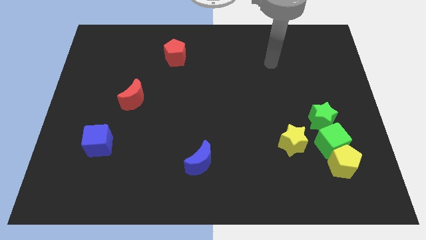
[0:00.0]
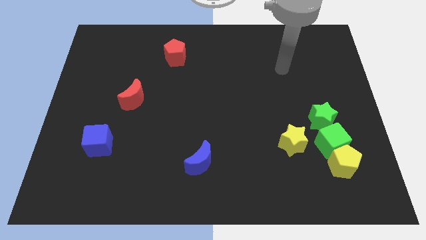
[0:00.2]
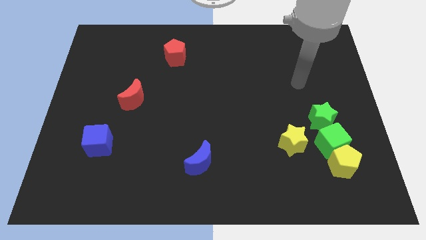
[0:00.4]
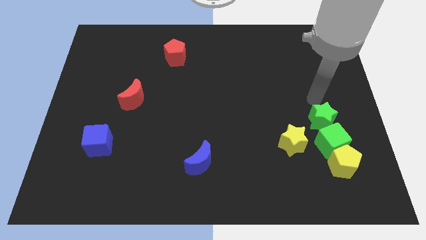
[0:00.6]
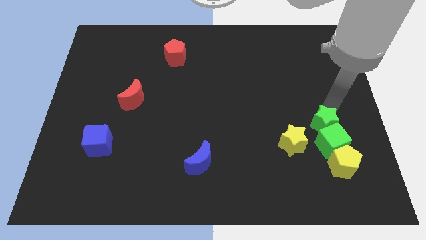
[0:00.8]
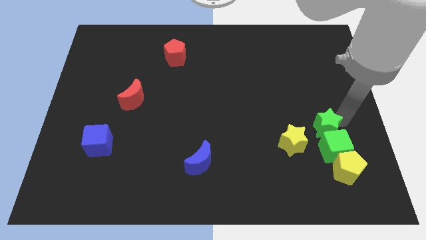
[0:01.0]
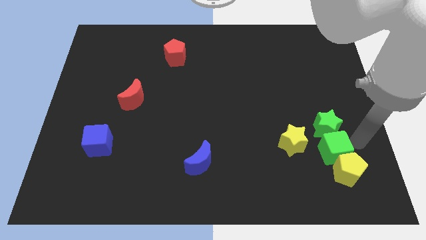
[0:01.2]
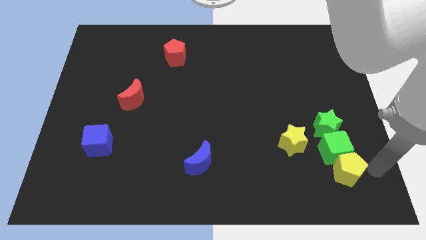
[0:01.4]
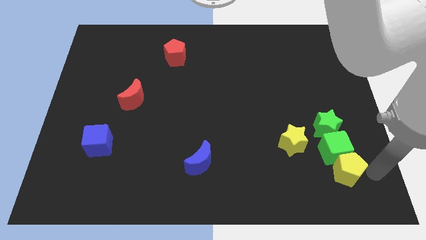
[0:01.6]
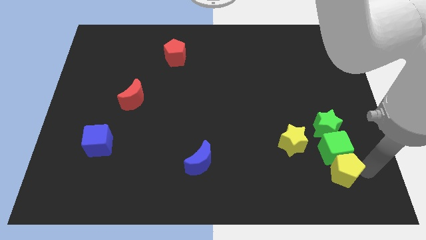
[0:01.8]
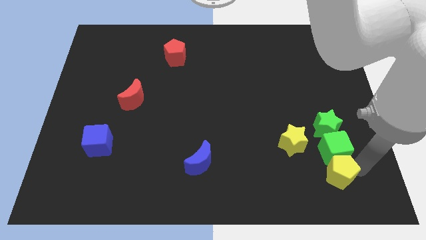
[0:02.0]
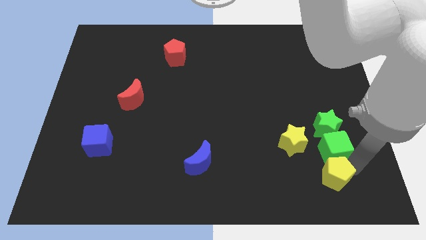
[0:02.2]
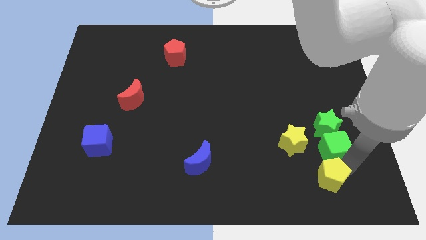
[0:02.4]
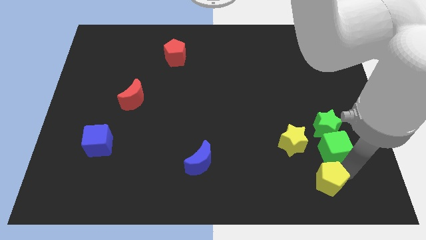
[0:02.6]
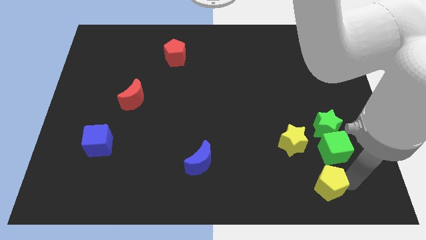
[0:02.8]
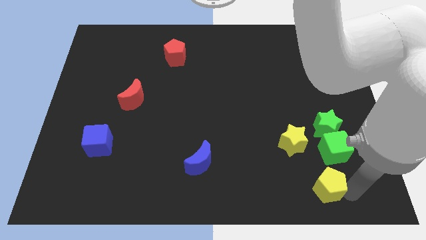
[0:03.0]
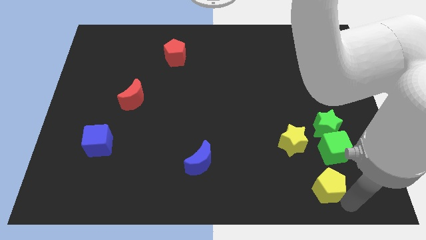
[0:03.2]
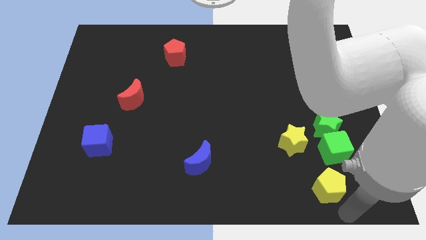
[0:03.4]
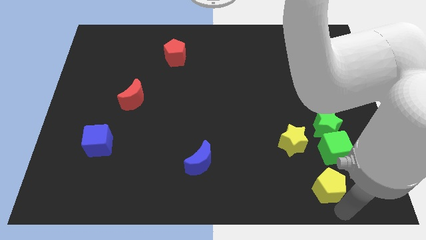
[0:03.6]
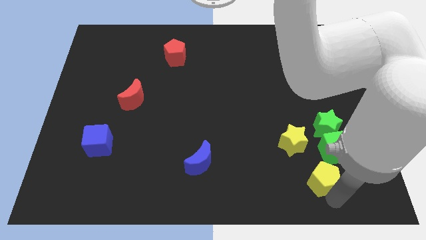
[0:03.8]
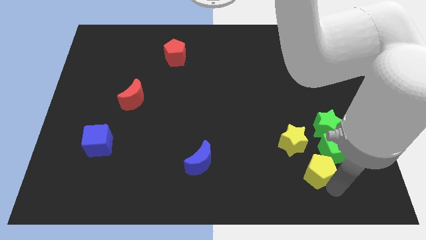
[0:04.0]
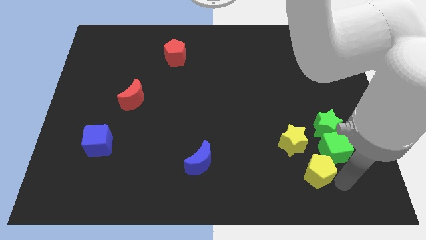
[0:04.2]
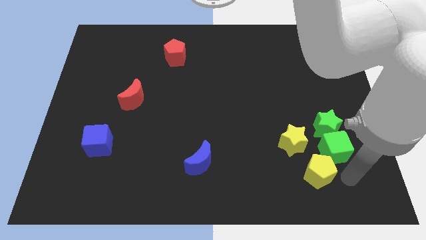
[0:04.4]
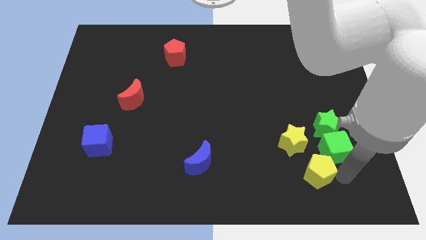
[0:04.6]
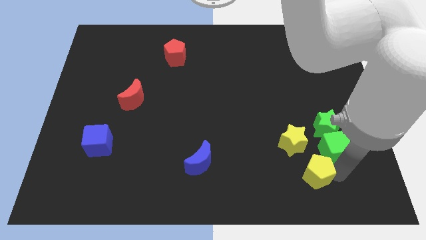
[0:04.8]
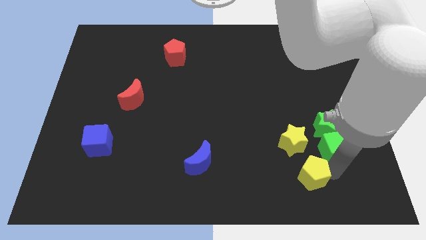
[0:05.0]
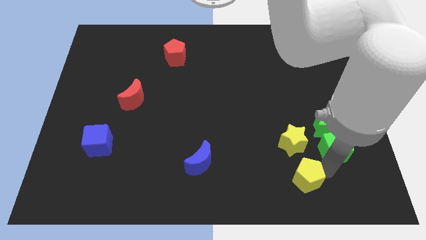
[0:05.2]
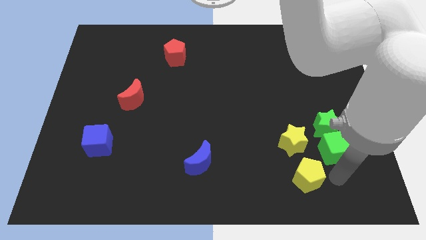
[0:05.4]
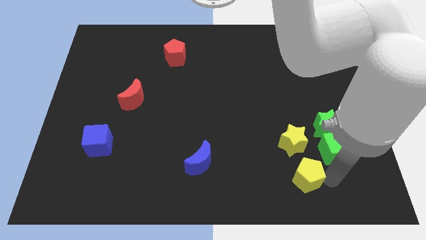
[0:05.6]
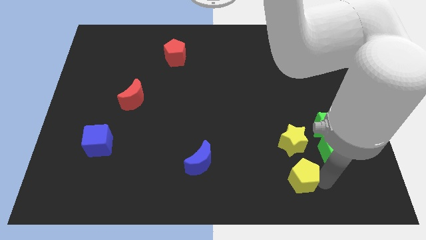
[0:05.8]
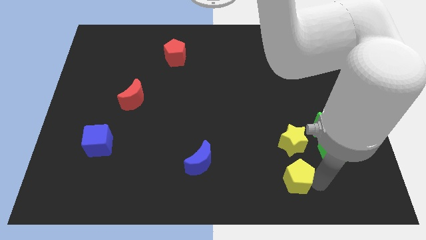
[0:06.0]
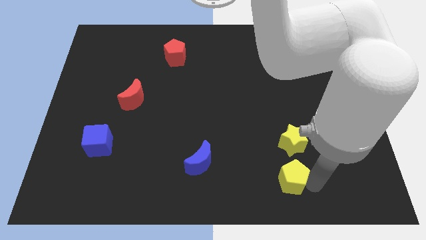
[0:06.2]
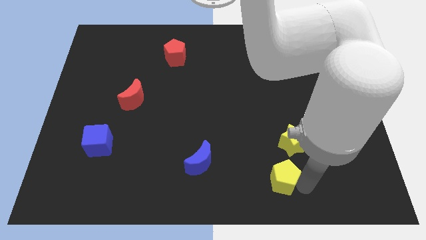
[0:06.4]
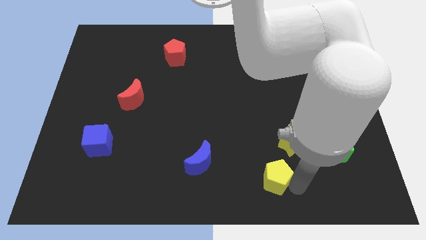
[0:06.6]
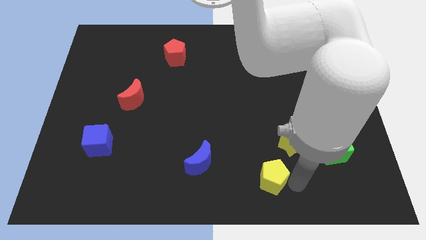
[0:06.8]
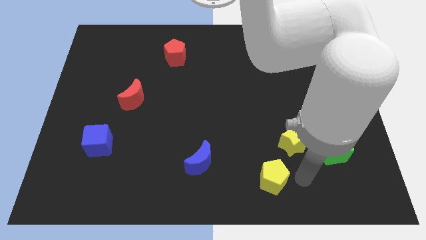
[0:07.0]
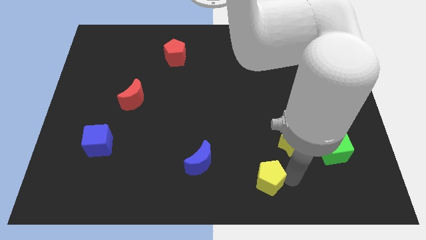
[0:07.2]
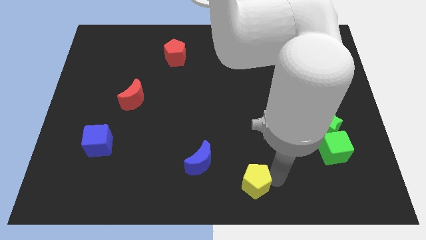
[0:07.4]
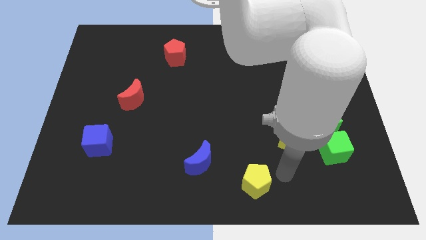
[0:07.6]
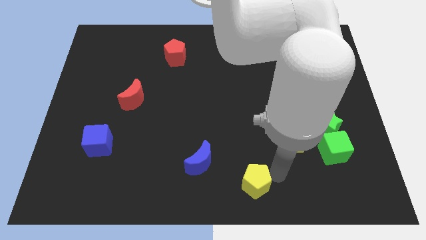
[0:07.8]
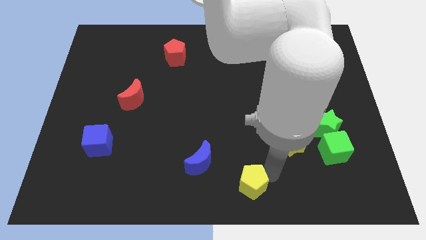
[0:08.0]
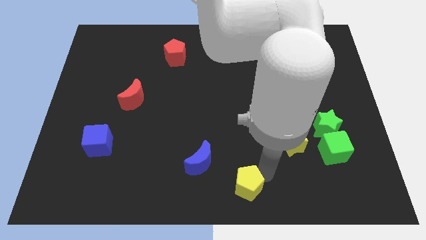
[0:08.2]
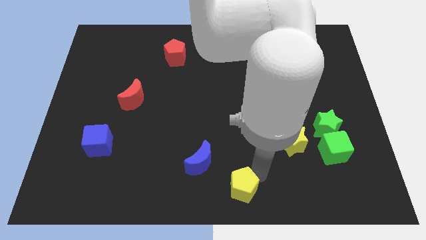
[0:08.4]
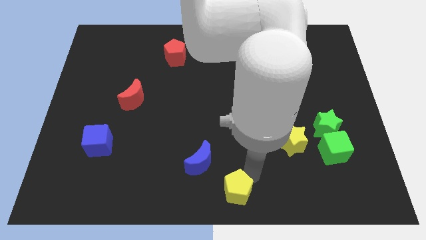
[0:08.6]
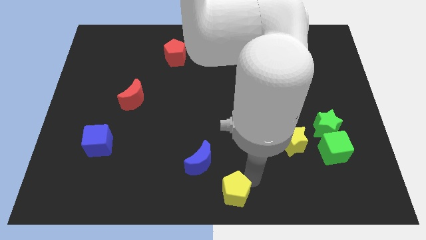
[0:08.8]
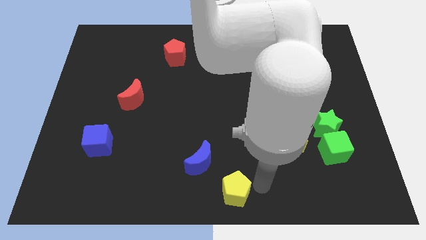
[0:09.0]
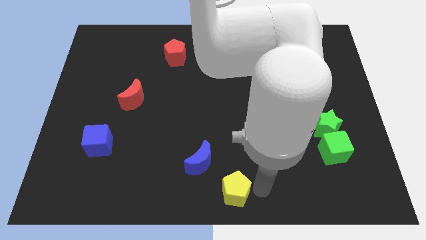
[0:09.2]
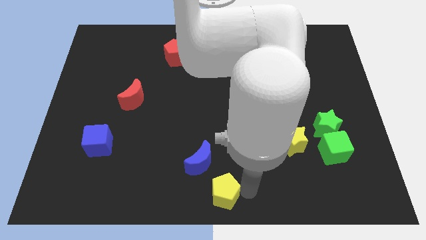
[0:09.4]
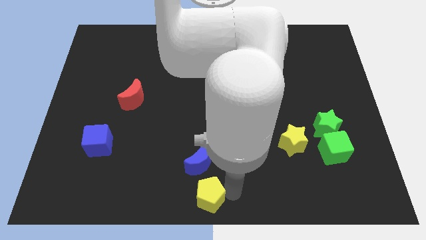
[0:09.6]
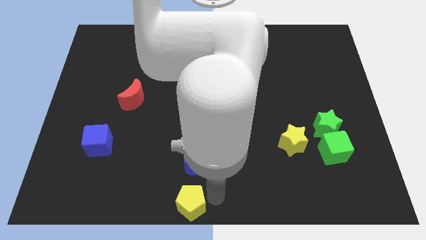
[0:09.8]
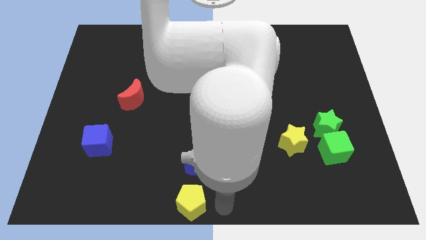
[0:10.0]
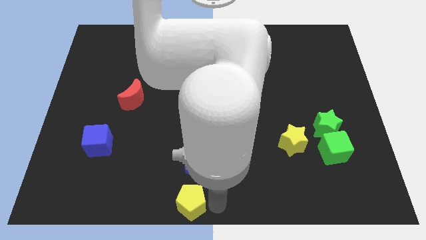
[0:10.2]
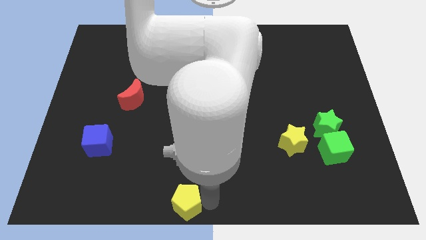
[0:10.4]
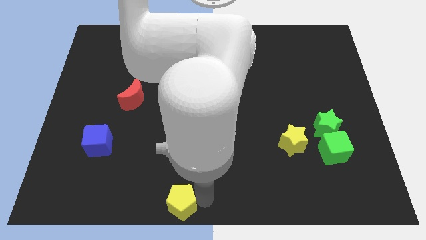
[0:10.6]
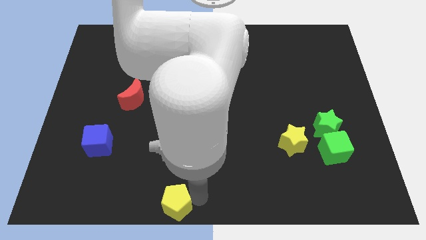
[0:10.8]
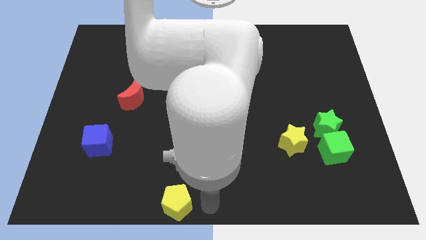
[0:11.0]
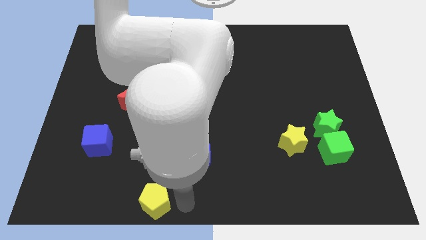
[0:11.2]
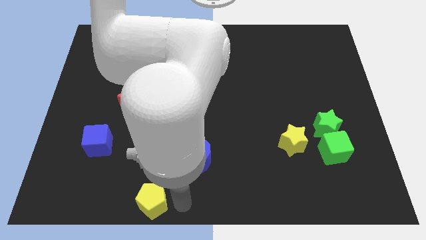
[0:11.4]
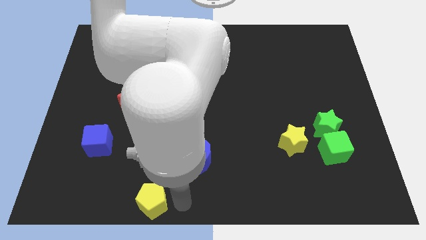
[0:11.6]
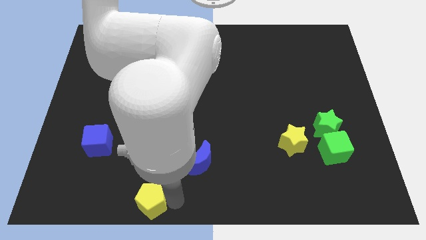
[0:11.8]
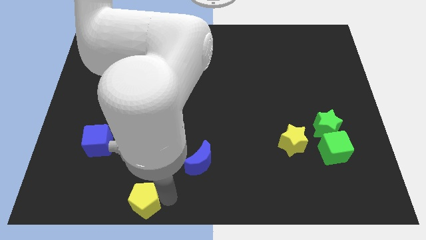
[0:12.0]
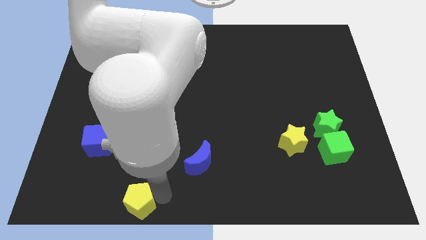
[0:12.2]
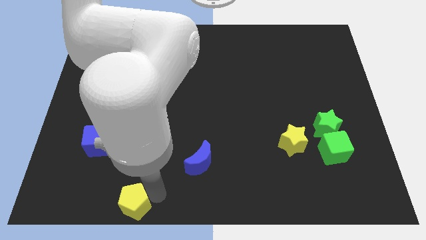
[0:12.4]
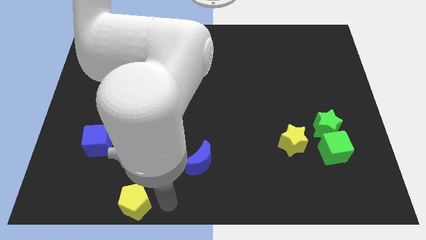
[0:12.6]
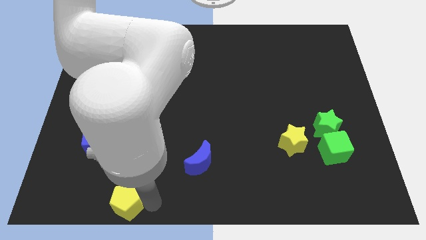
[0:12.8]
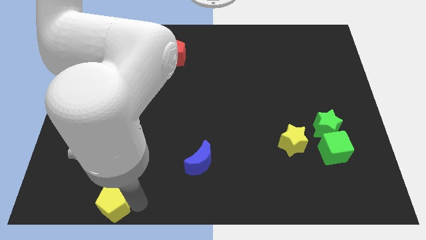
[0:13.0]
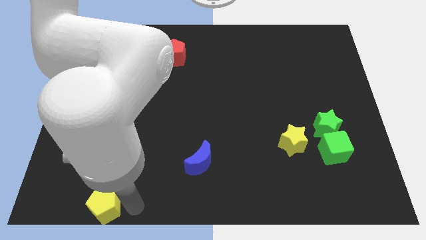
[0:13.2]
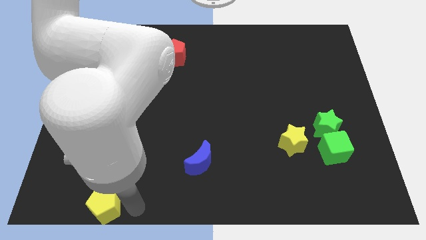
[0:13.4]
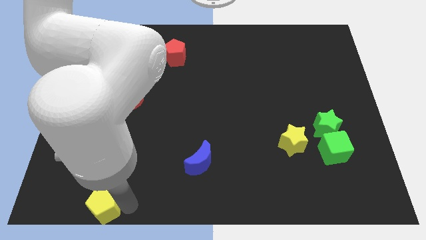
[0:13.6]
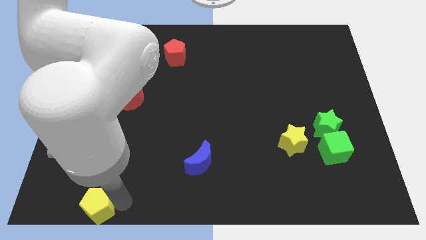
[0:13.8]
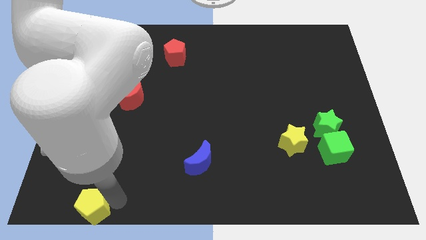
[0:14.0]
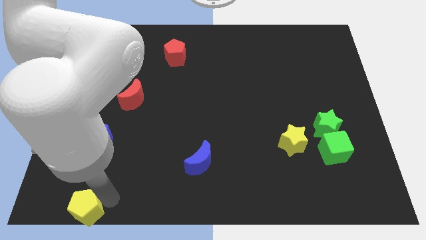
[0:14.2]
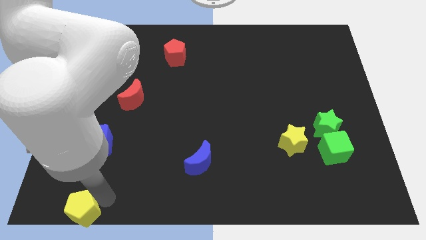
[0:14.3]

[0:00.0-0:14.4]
slide the yellow pentagon to the bottom left corner

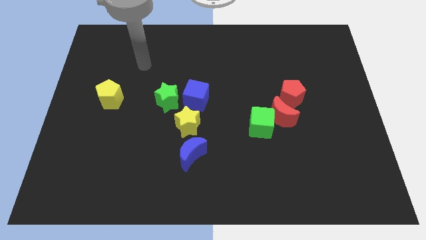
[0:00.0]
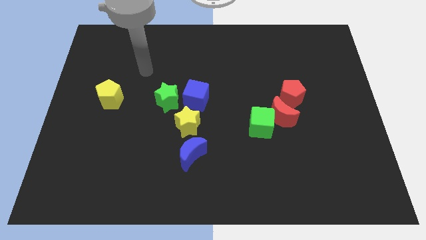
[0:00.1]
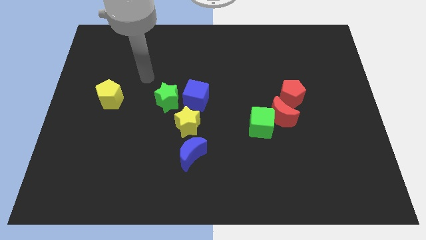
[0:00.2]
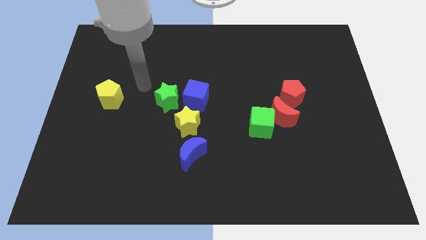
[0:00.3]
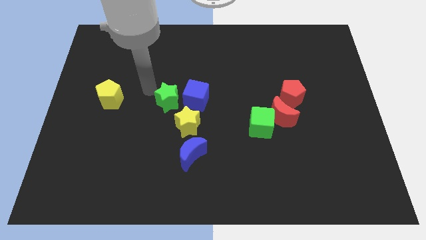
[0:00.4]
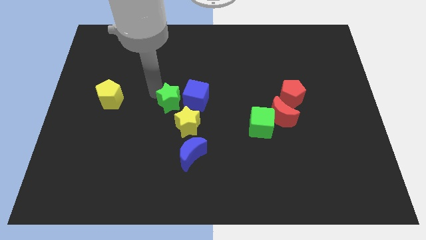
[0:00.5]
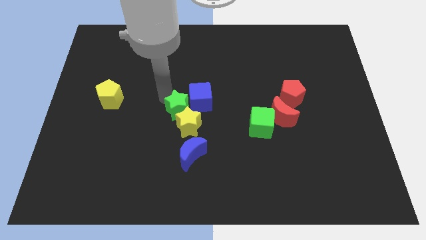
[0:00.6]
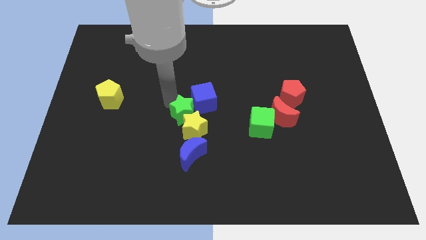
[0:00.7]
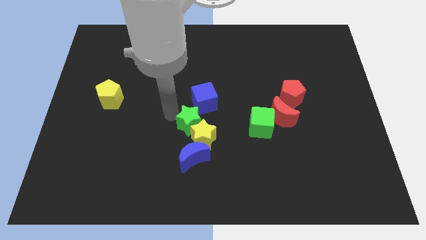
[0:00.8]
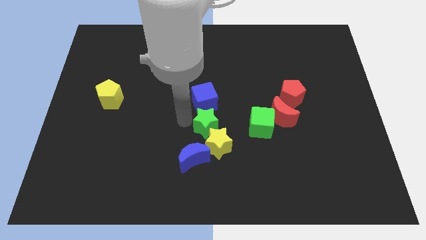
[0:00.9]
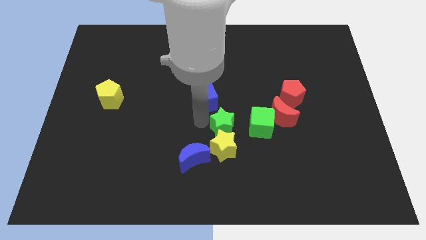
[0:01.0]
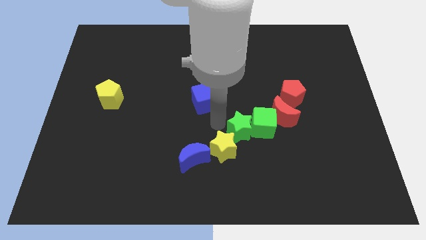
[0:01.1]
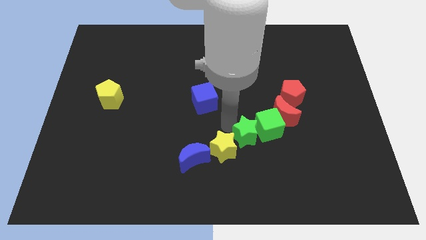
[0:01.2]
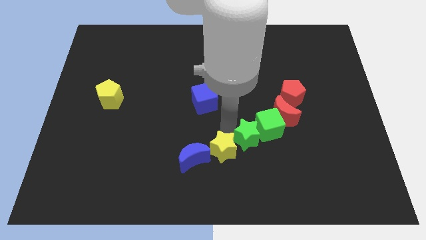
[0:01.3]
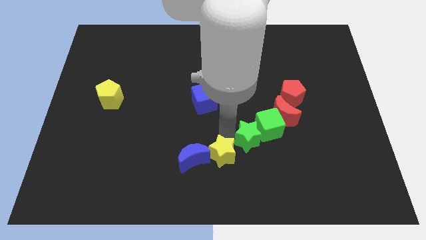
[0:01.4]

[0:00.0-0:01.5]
slide the yellow star to the bottom
